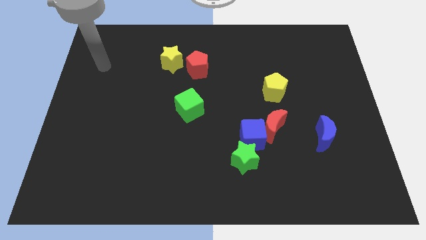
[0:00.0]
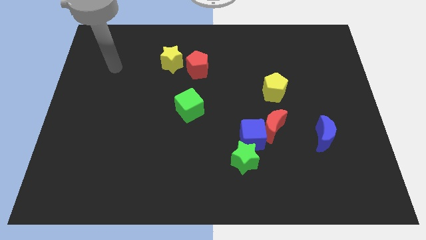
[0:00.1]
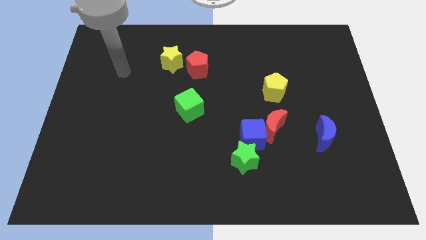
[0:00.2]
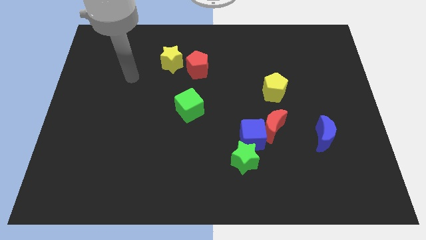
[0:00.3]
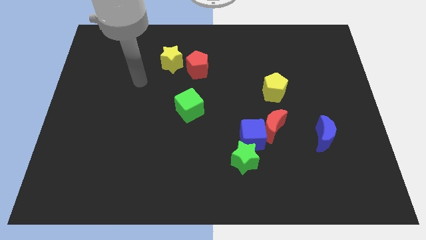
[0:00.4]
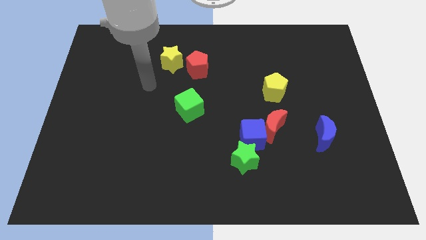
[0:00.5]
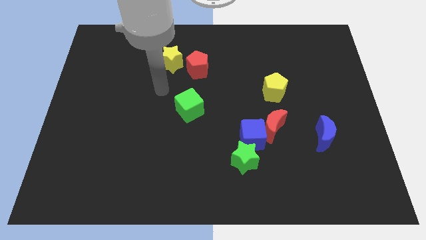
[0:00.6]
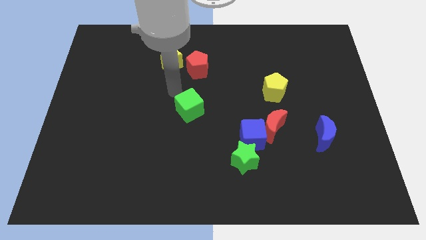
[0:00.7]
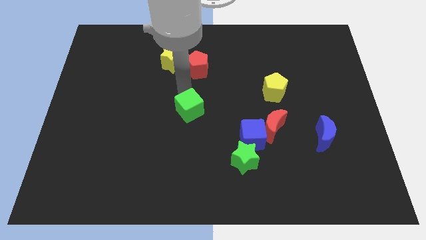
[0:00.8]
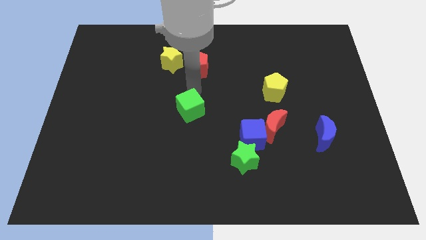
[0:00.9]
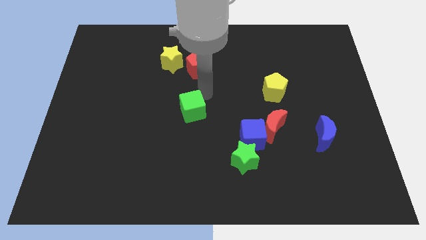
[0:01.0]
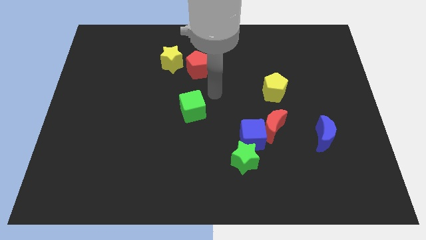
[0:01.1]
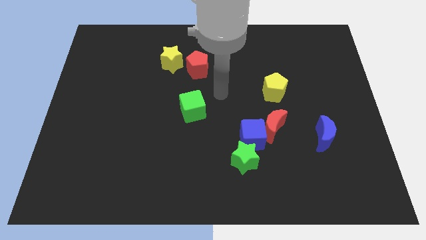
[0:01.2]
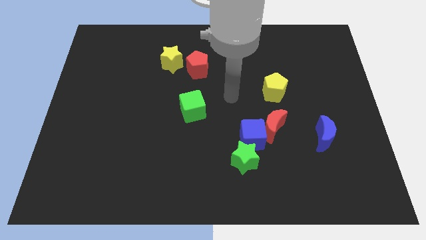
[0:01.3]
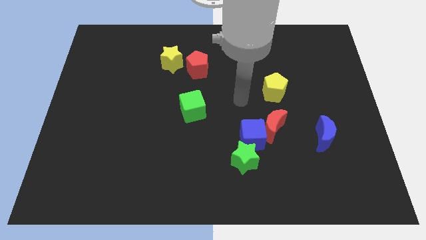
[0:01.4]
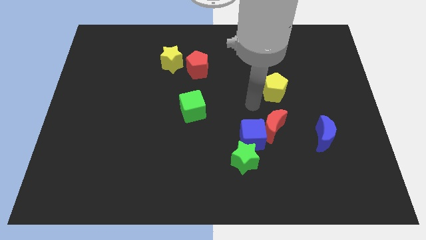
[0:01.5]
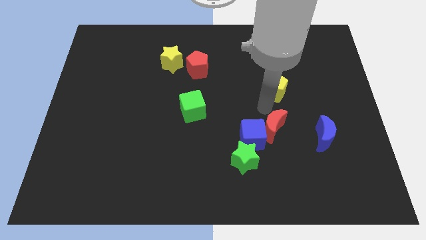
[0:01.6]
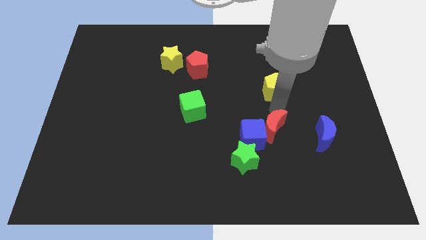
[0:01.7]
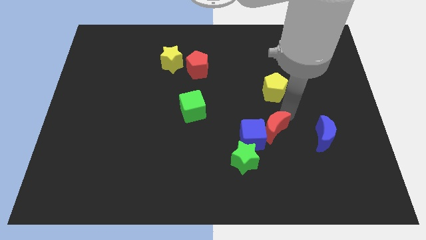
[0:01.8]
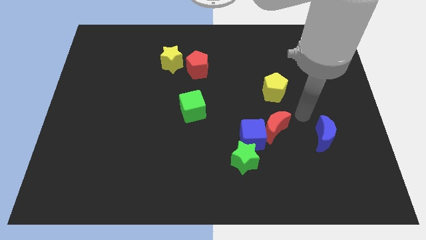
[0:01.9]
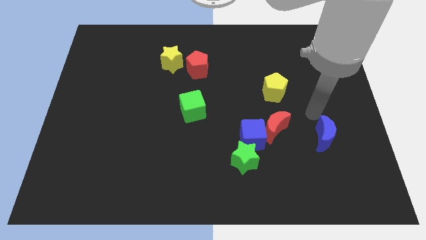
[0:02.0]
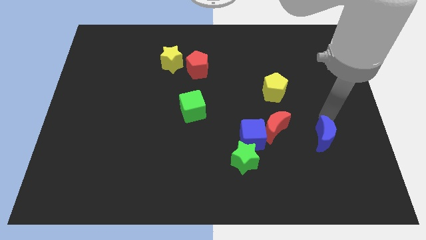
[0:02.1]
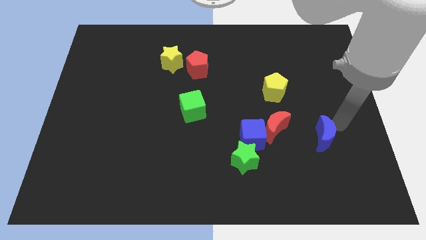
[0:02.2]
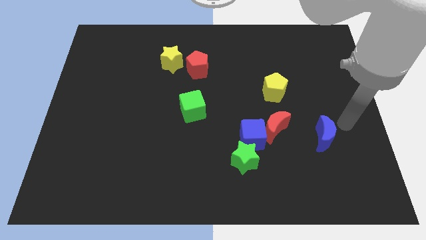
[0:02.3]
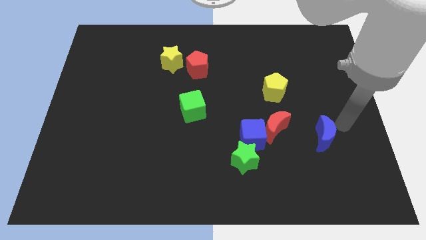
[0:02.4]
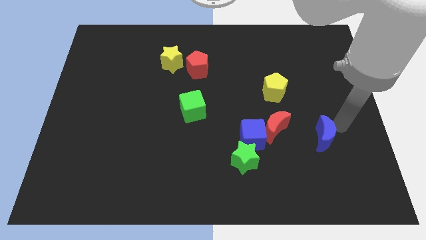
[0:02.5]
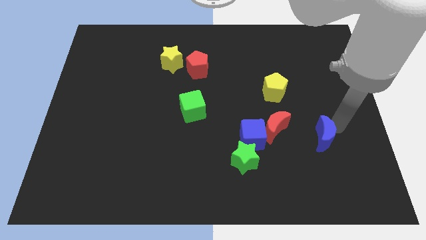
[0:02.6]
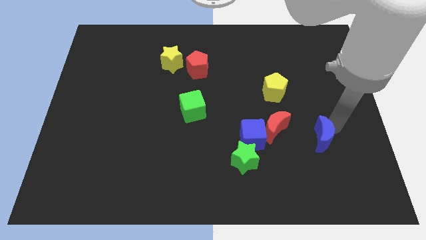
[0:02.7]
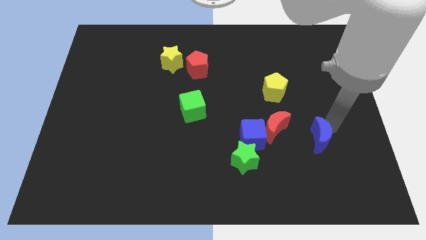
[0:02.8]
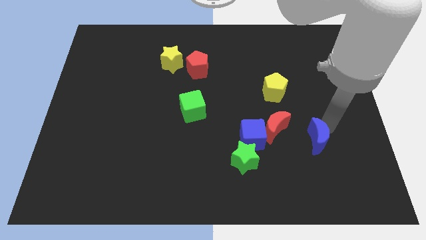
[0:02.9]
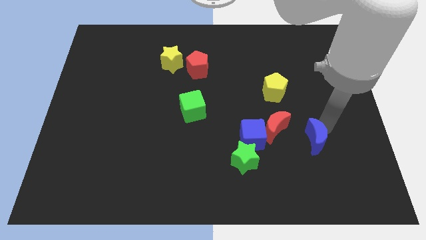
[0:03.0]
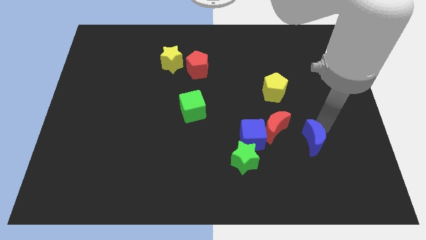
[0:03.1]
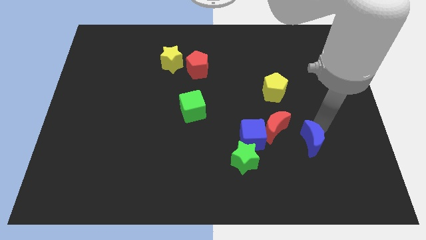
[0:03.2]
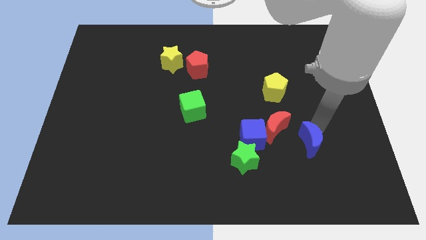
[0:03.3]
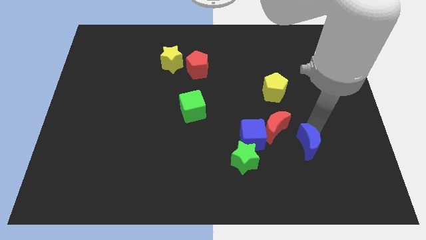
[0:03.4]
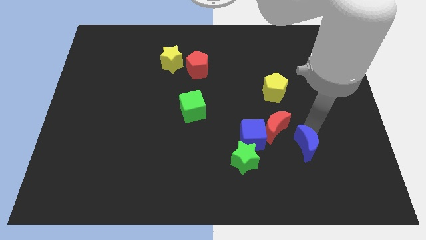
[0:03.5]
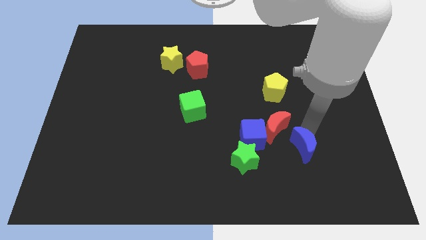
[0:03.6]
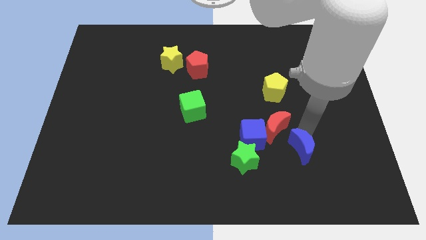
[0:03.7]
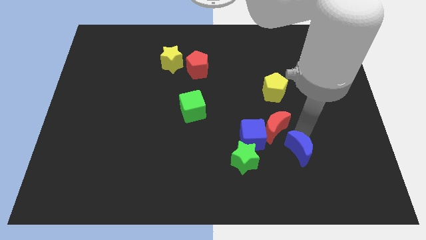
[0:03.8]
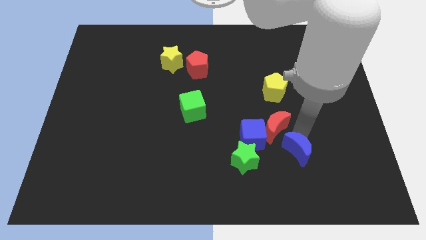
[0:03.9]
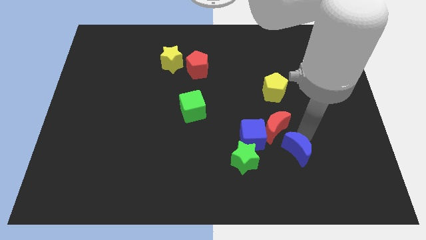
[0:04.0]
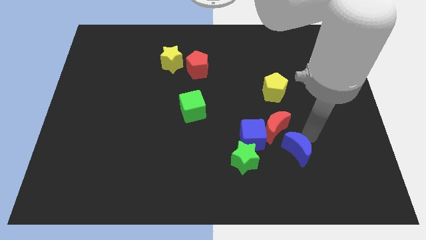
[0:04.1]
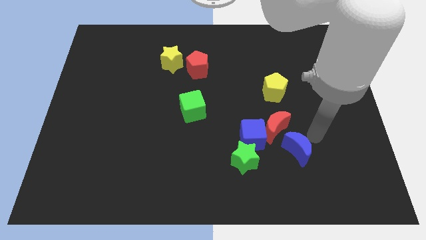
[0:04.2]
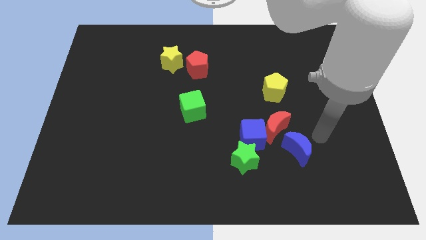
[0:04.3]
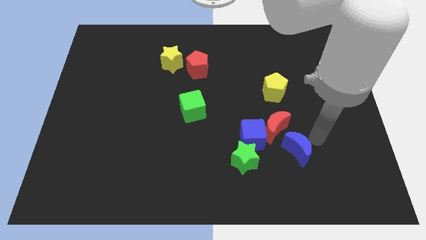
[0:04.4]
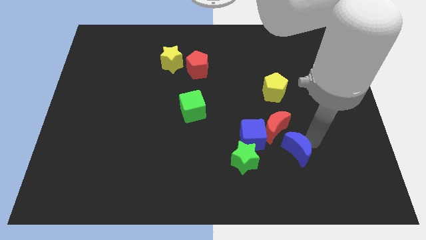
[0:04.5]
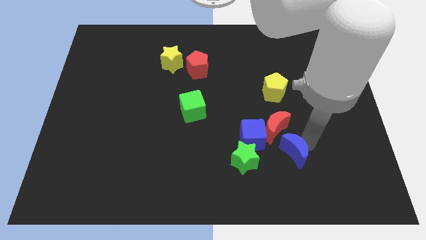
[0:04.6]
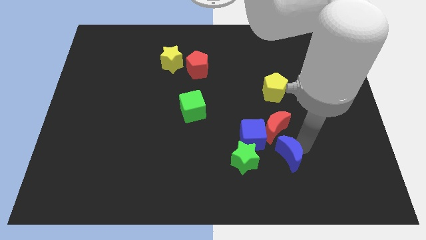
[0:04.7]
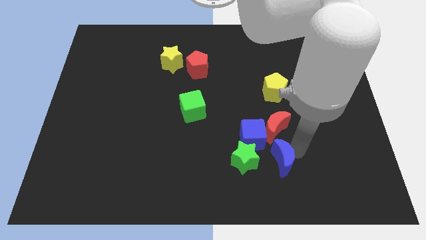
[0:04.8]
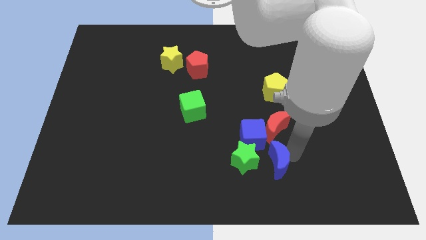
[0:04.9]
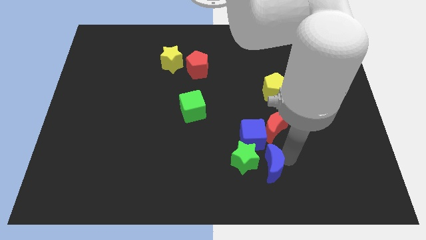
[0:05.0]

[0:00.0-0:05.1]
push the blue moon towards the green star

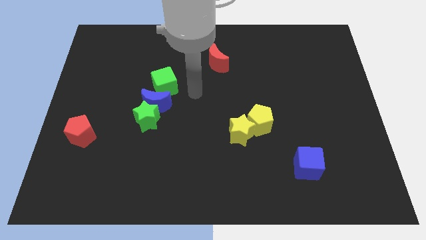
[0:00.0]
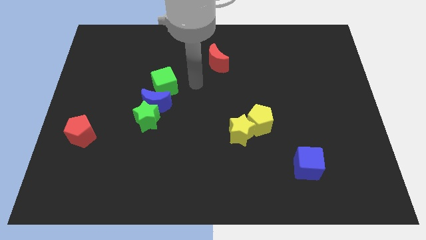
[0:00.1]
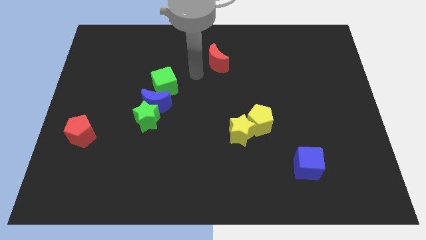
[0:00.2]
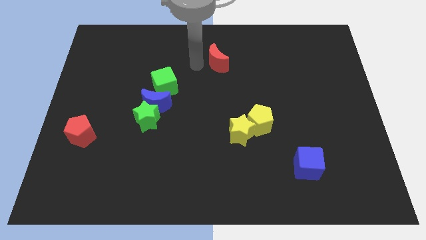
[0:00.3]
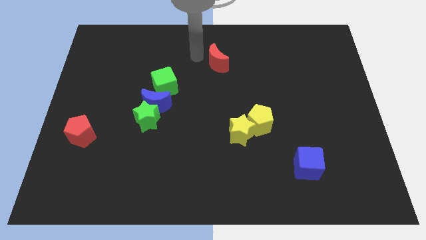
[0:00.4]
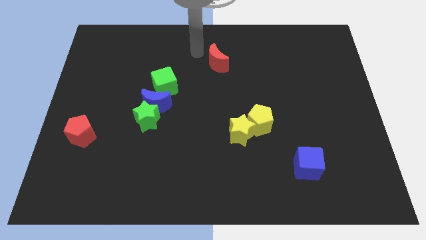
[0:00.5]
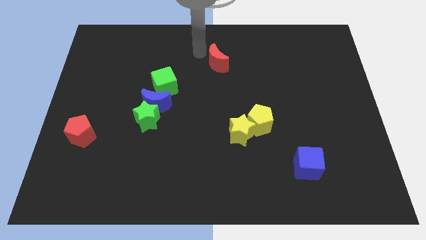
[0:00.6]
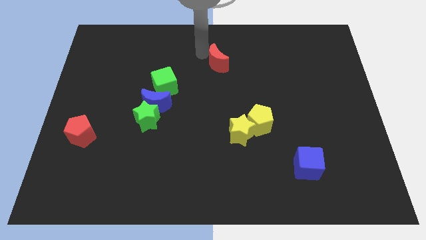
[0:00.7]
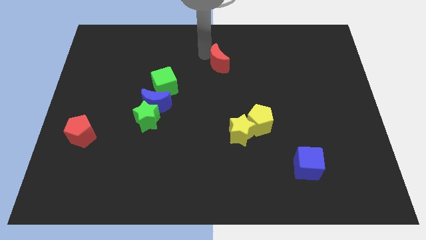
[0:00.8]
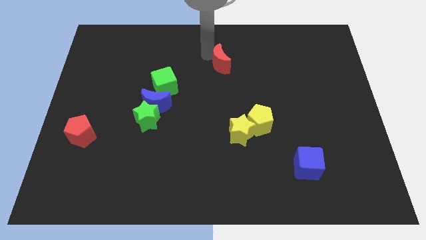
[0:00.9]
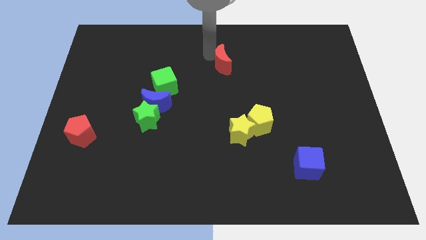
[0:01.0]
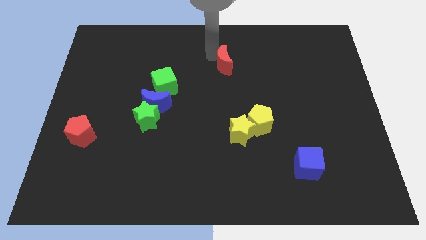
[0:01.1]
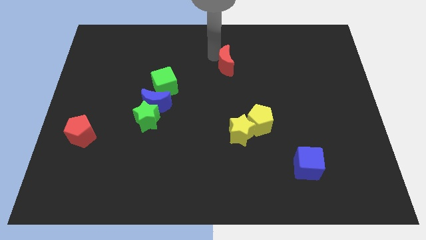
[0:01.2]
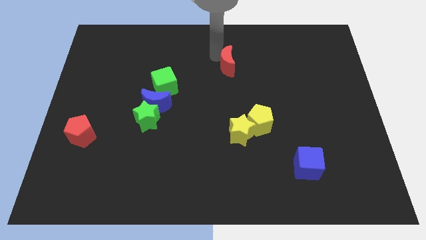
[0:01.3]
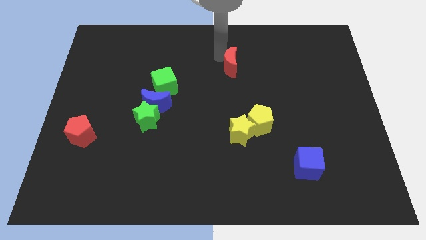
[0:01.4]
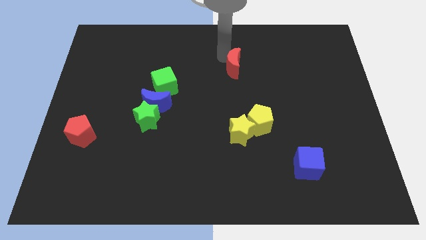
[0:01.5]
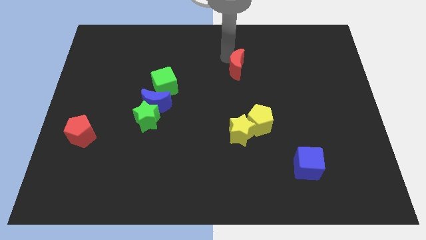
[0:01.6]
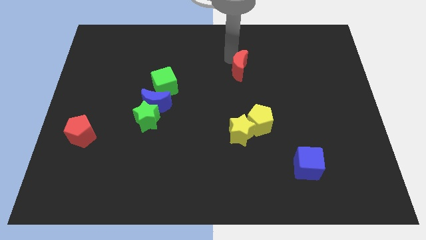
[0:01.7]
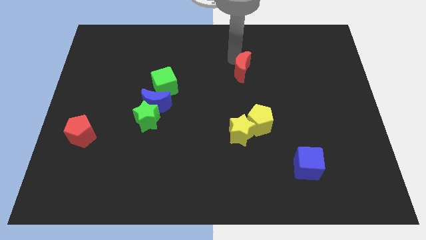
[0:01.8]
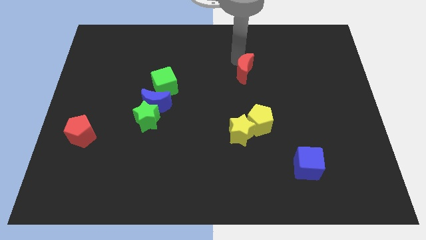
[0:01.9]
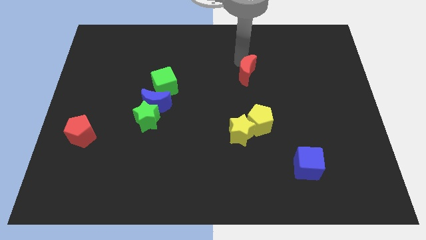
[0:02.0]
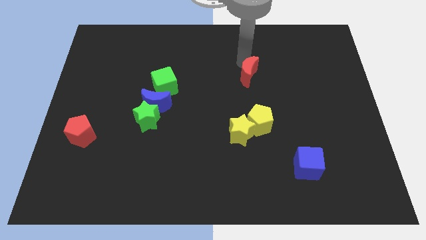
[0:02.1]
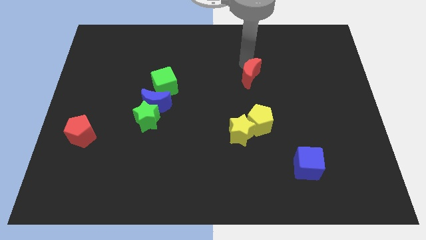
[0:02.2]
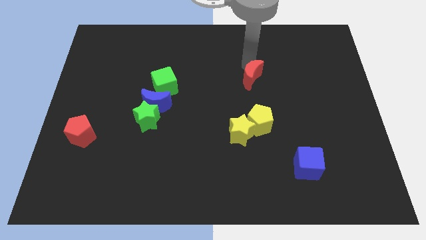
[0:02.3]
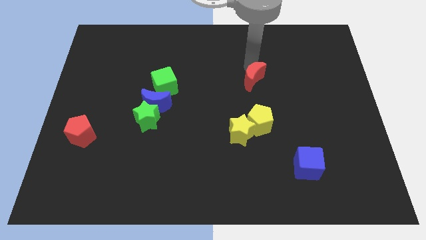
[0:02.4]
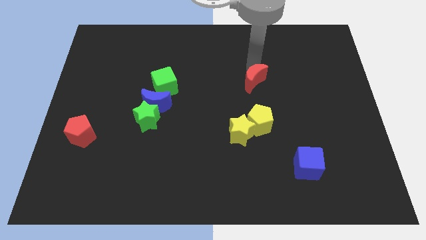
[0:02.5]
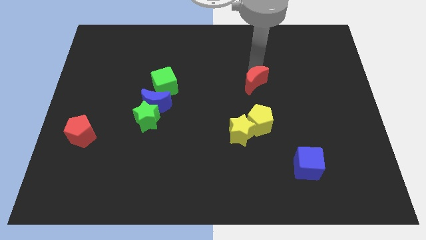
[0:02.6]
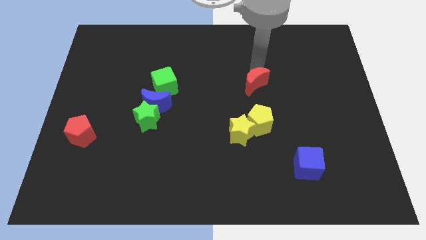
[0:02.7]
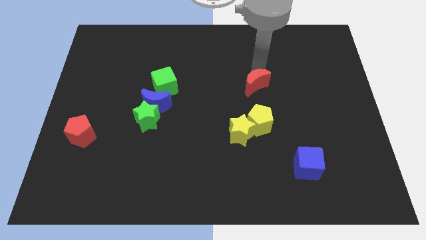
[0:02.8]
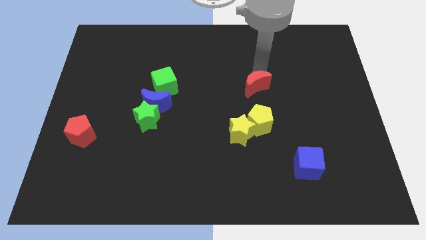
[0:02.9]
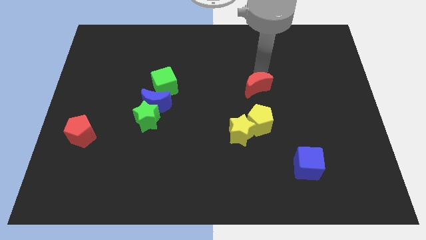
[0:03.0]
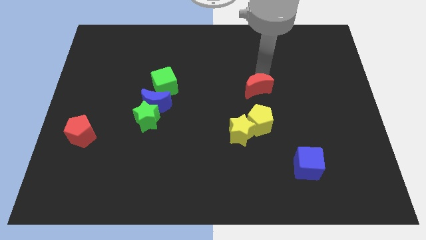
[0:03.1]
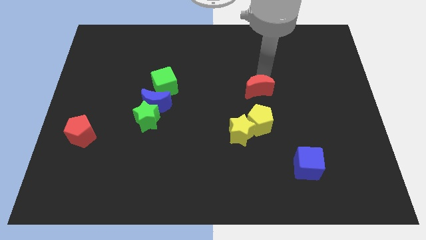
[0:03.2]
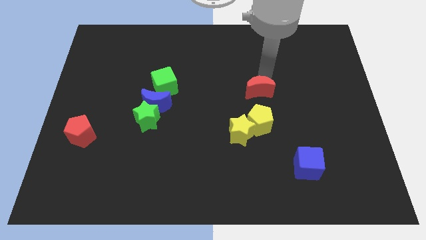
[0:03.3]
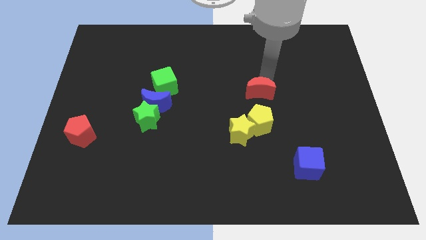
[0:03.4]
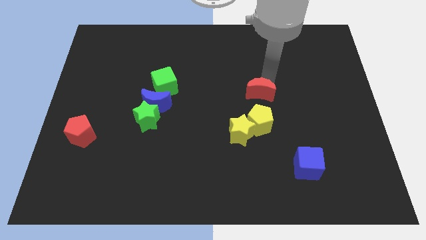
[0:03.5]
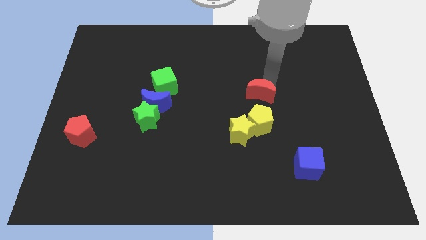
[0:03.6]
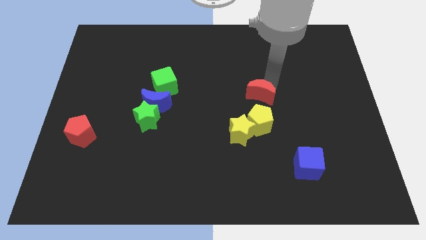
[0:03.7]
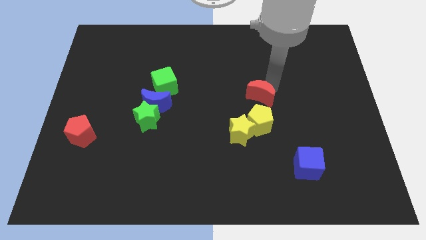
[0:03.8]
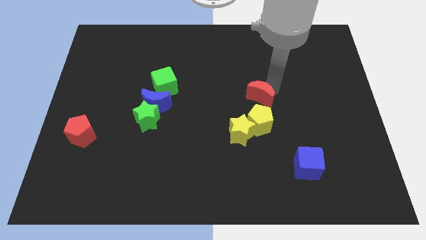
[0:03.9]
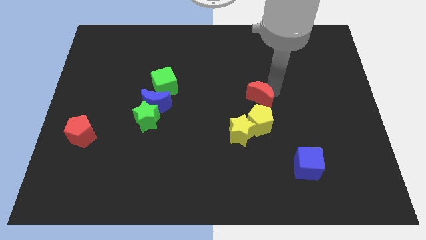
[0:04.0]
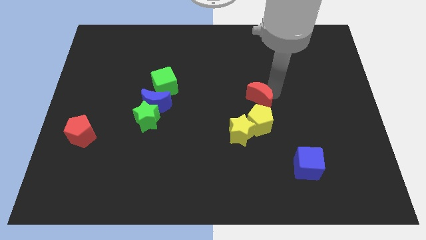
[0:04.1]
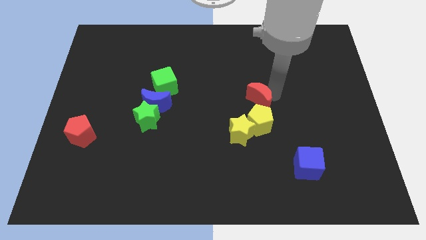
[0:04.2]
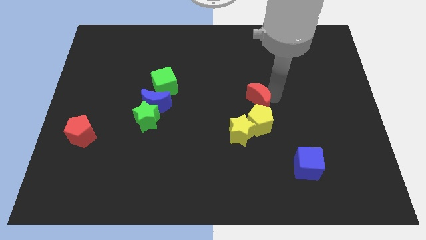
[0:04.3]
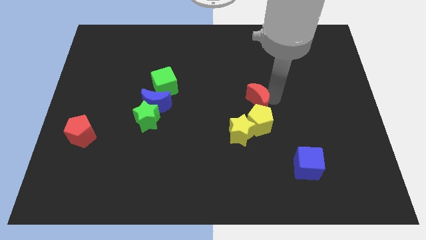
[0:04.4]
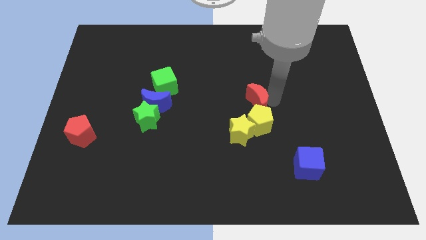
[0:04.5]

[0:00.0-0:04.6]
slide the red moon close to the yellow pentagon
